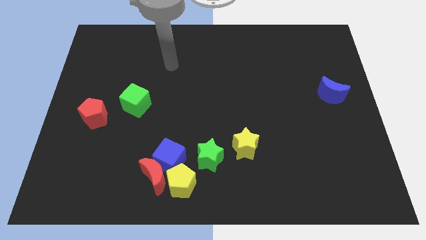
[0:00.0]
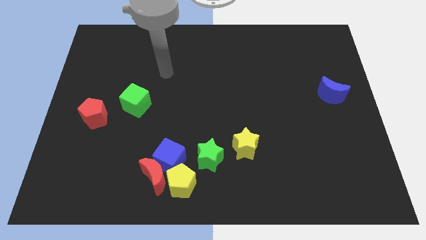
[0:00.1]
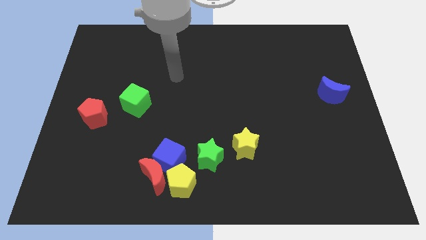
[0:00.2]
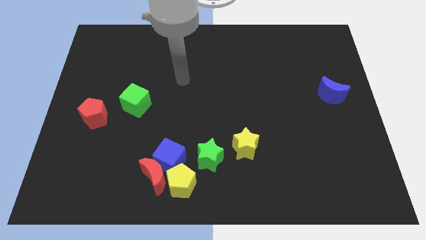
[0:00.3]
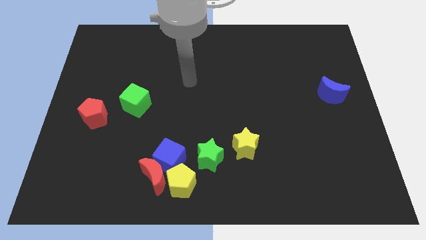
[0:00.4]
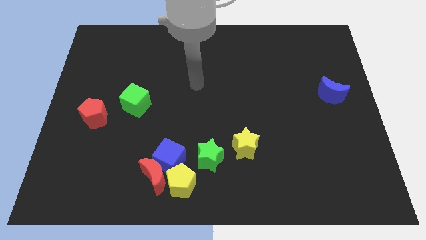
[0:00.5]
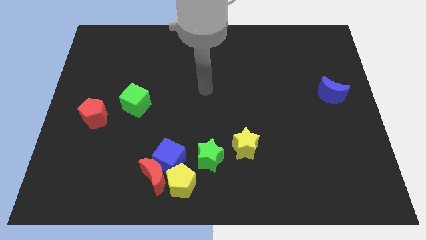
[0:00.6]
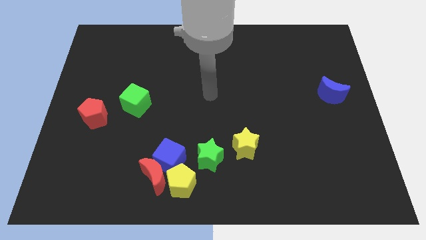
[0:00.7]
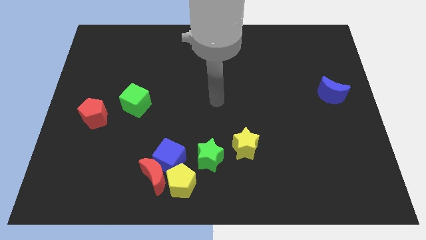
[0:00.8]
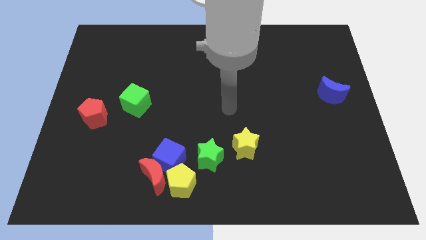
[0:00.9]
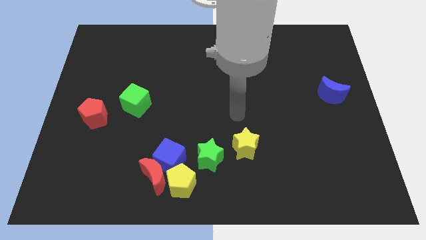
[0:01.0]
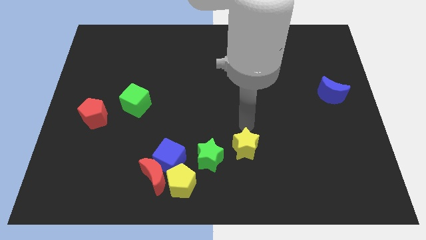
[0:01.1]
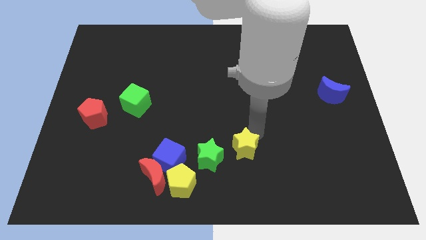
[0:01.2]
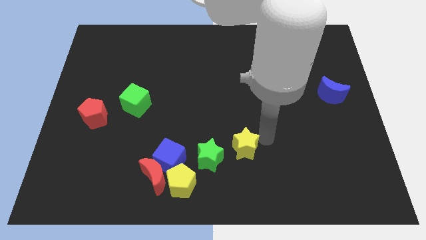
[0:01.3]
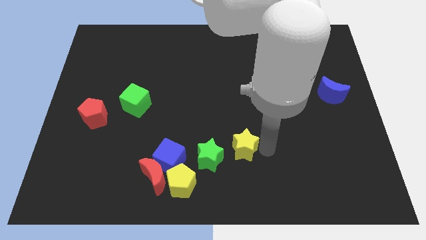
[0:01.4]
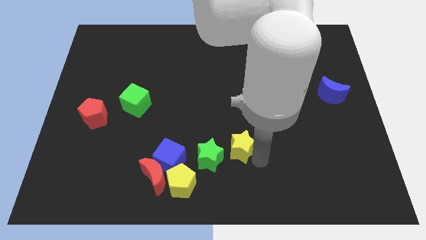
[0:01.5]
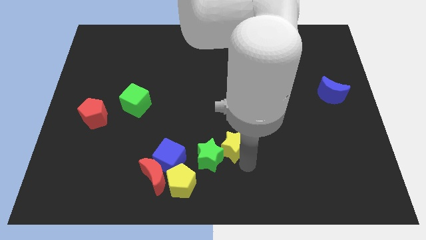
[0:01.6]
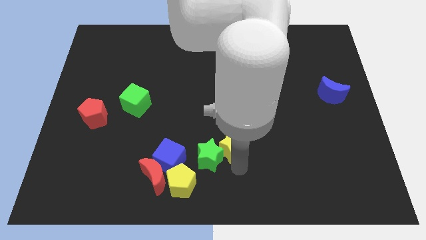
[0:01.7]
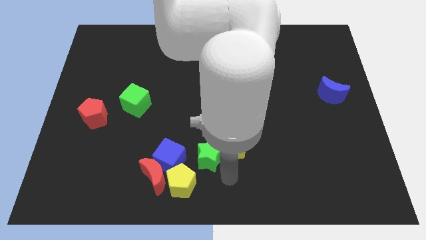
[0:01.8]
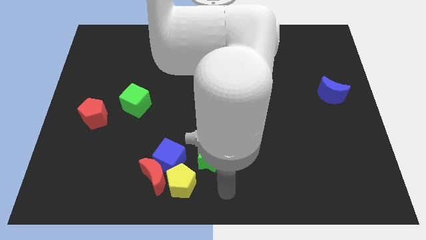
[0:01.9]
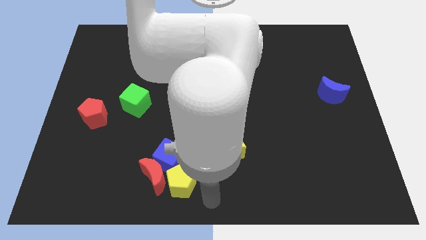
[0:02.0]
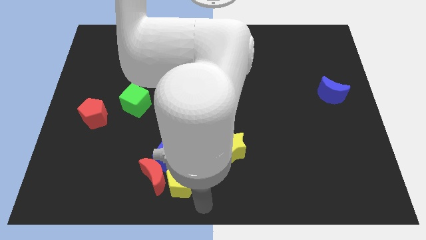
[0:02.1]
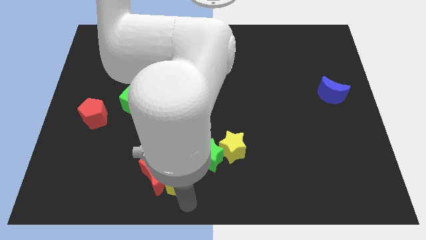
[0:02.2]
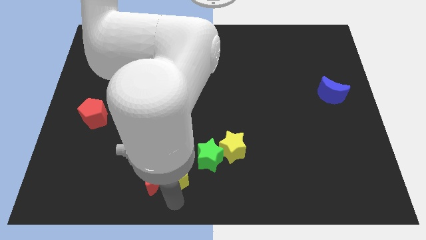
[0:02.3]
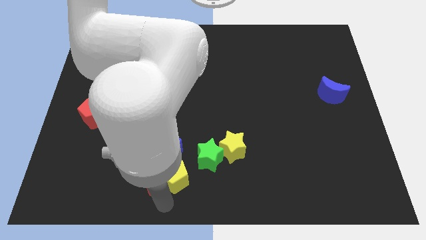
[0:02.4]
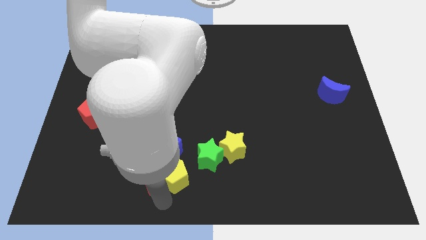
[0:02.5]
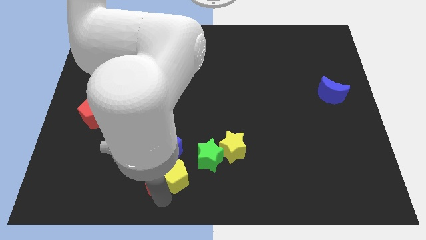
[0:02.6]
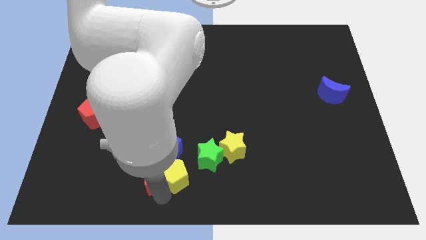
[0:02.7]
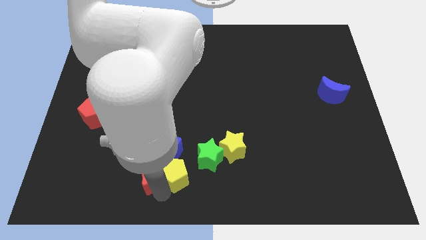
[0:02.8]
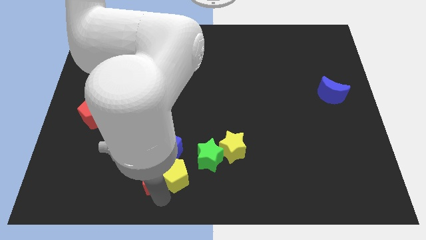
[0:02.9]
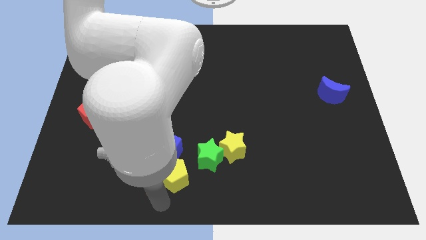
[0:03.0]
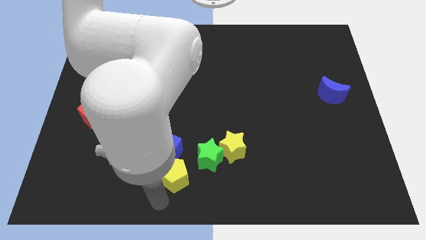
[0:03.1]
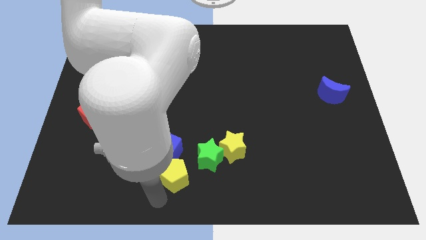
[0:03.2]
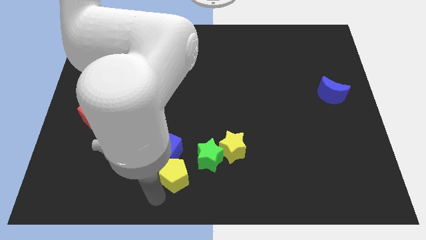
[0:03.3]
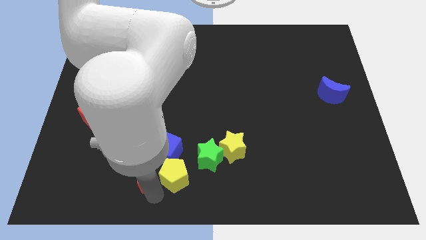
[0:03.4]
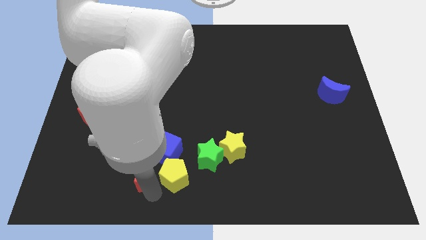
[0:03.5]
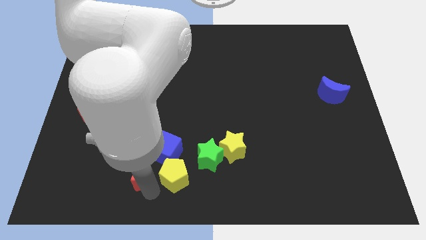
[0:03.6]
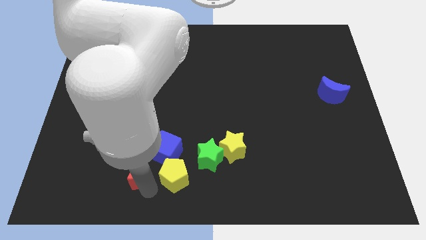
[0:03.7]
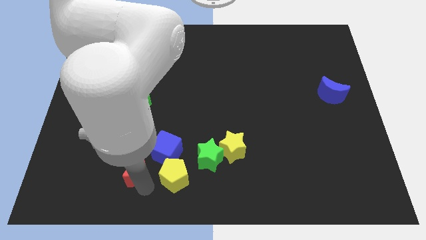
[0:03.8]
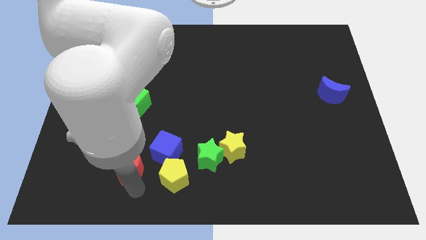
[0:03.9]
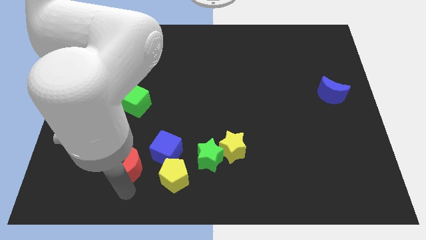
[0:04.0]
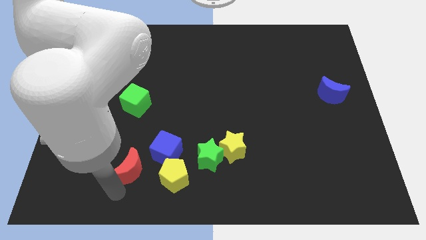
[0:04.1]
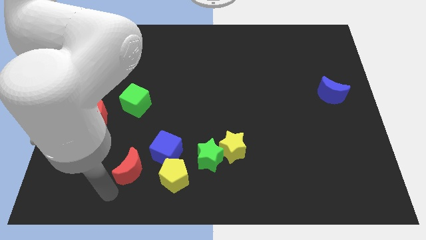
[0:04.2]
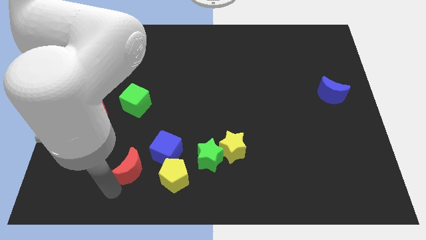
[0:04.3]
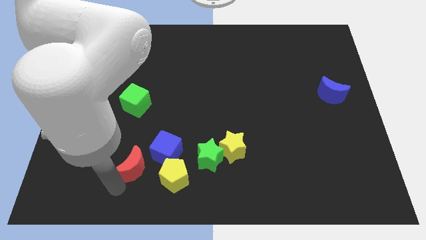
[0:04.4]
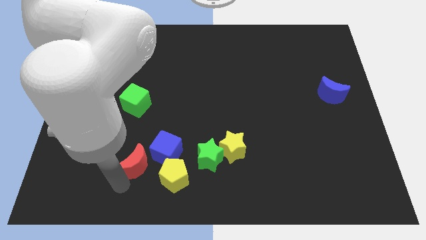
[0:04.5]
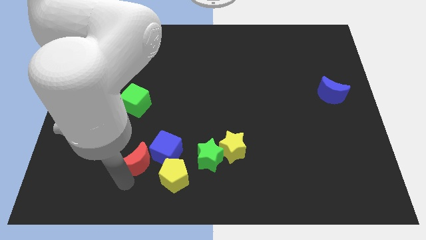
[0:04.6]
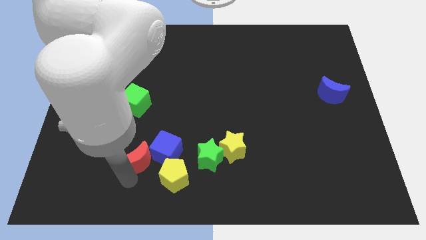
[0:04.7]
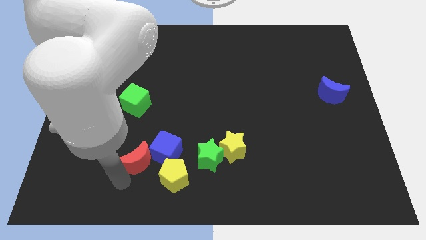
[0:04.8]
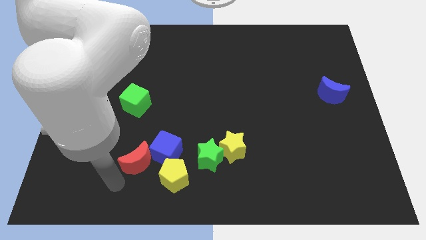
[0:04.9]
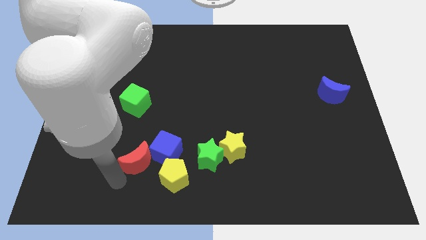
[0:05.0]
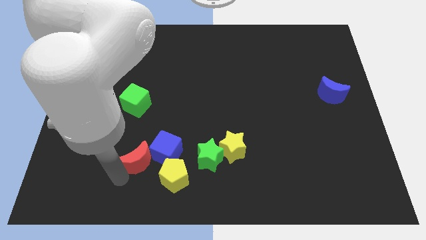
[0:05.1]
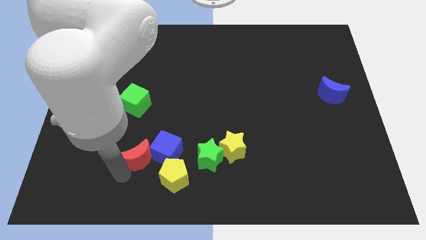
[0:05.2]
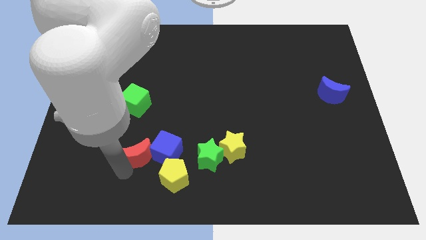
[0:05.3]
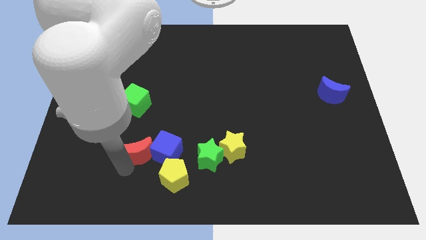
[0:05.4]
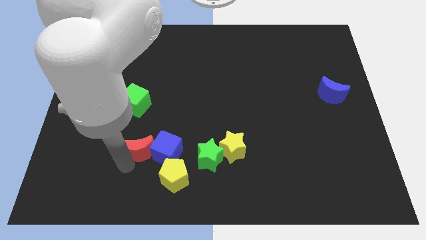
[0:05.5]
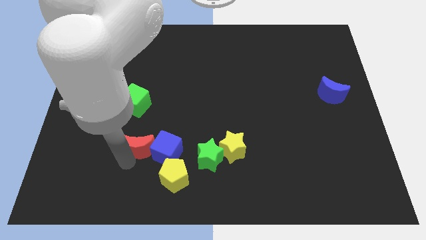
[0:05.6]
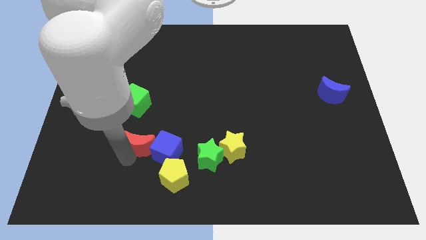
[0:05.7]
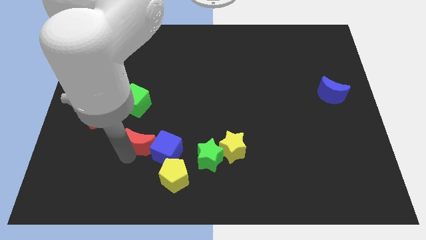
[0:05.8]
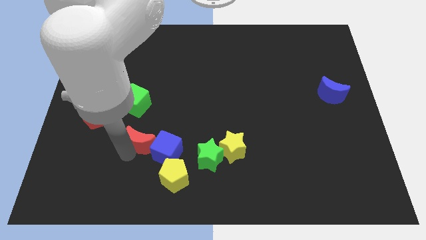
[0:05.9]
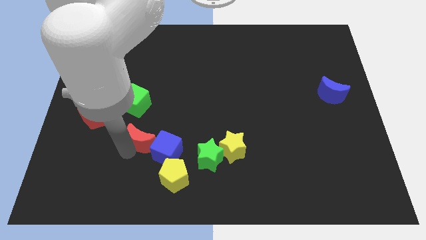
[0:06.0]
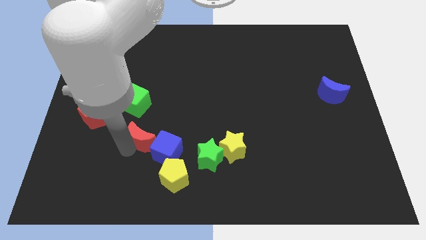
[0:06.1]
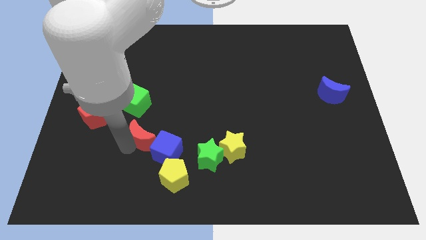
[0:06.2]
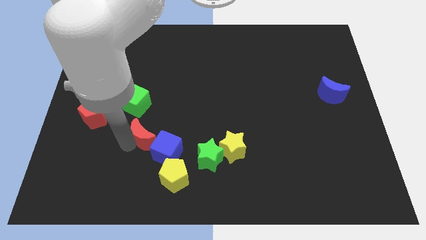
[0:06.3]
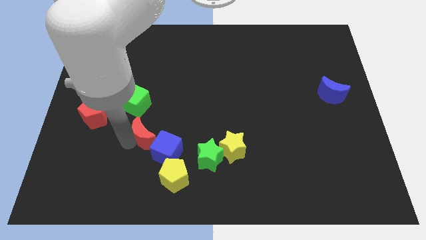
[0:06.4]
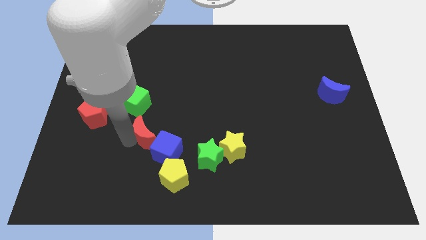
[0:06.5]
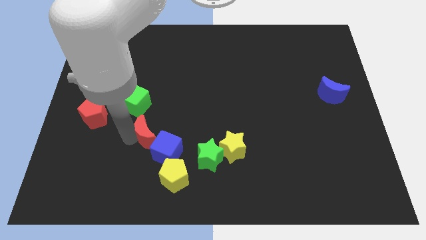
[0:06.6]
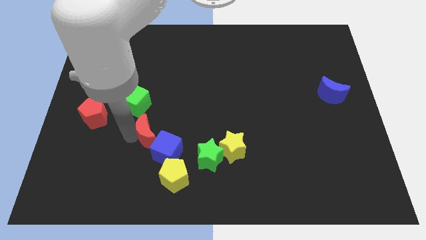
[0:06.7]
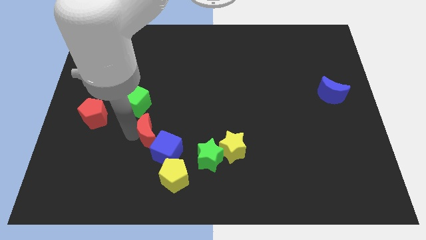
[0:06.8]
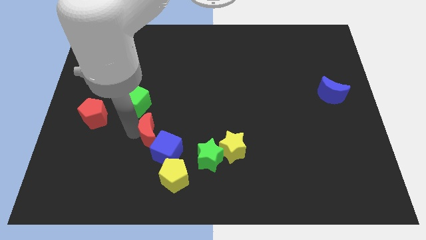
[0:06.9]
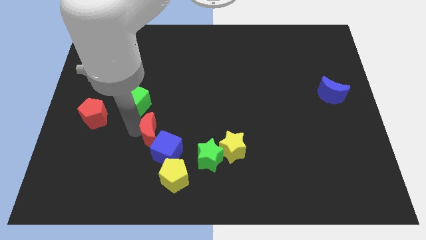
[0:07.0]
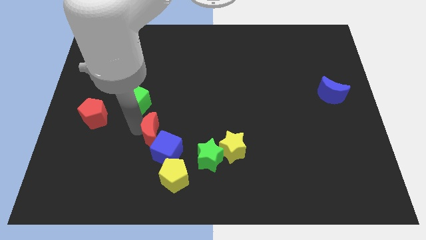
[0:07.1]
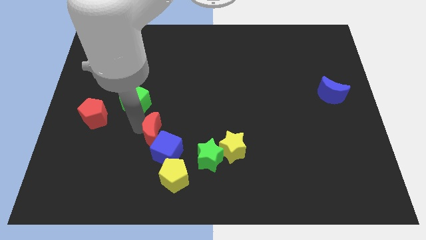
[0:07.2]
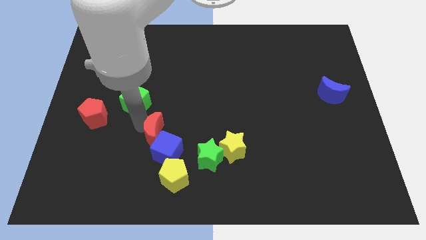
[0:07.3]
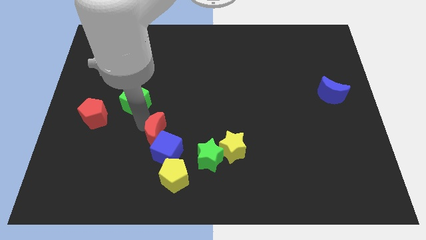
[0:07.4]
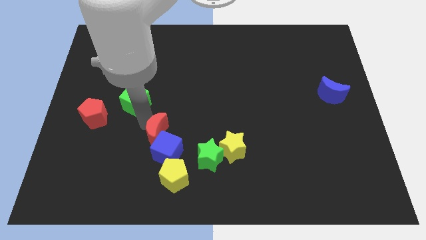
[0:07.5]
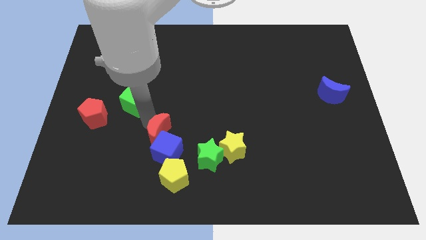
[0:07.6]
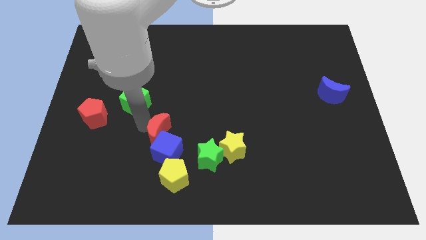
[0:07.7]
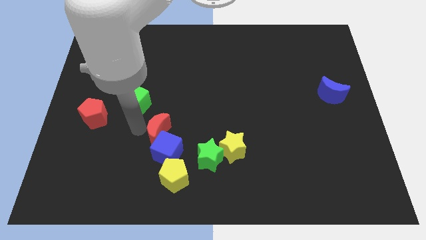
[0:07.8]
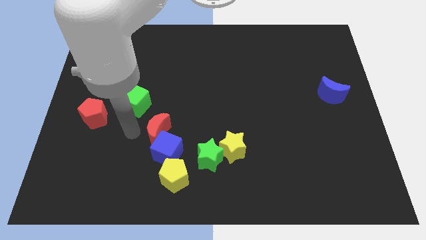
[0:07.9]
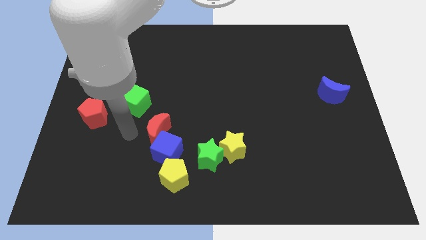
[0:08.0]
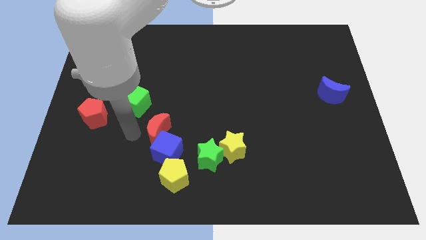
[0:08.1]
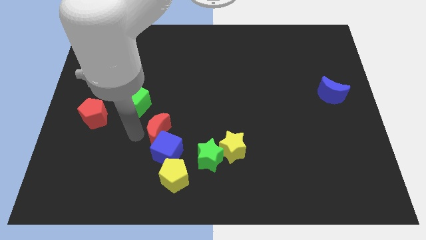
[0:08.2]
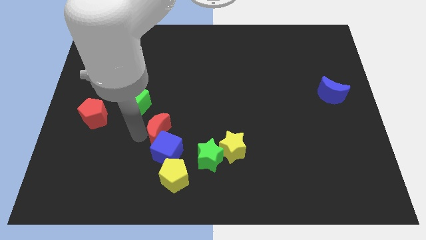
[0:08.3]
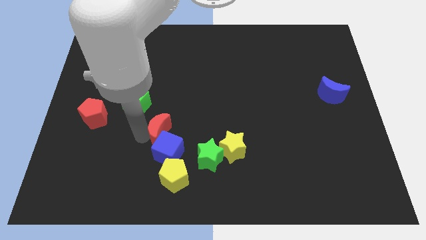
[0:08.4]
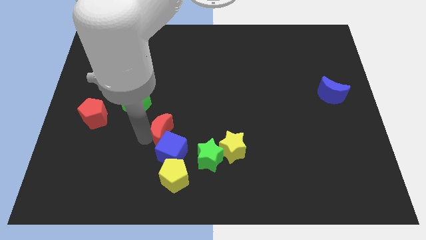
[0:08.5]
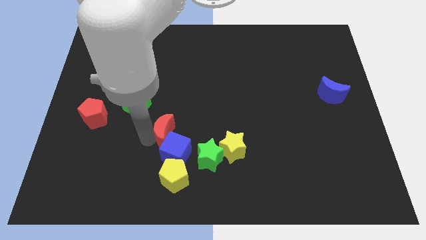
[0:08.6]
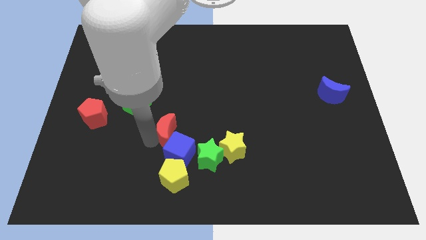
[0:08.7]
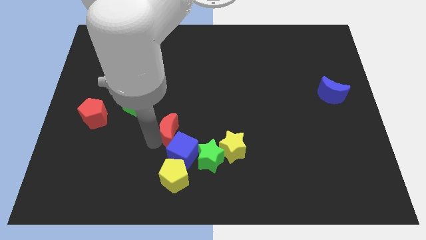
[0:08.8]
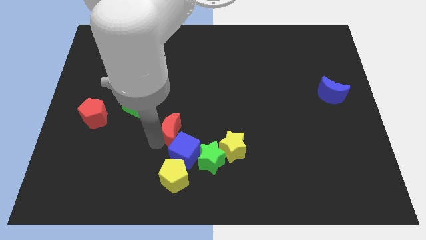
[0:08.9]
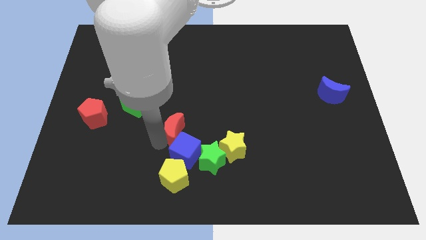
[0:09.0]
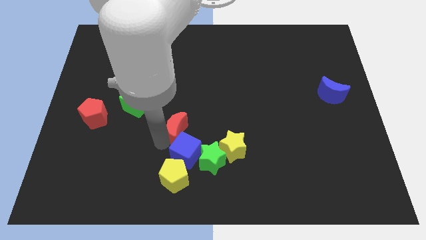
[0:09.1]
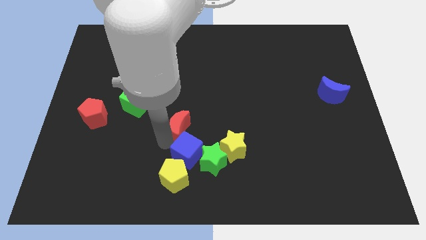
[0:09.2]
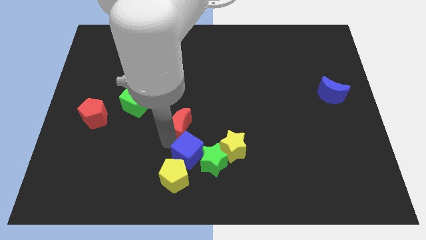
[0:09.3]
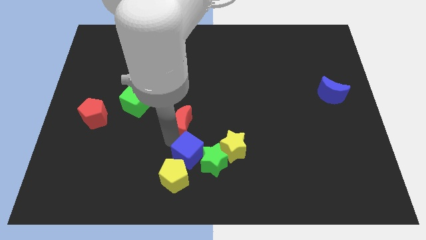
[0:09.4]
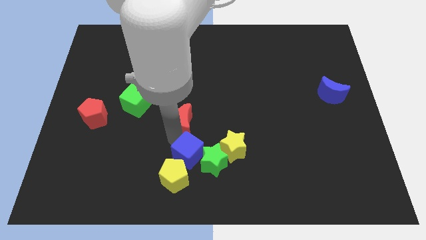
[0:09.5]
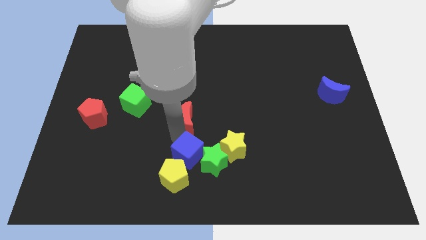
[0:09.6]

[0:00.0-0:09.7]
move the red moon diagonally up and to the left of the yellow star
